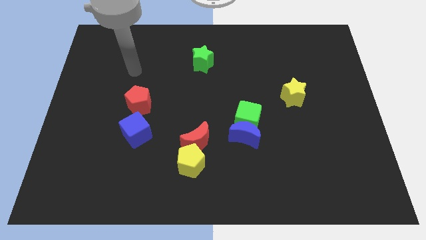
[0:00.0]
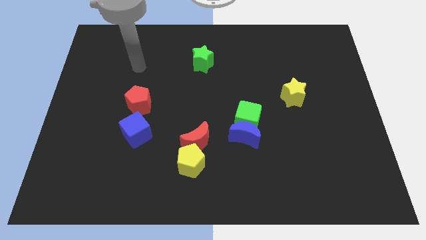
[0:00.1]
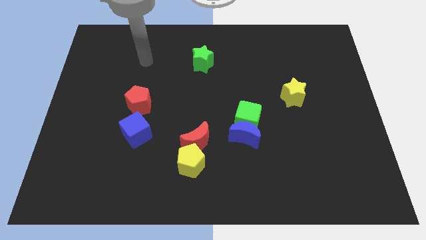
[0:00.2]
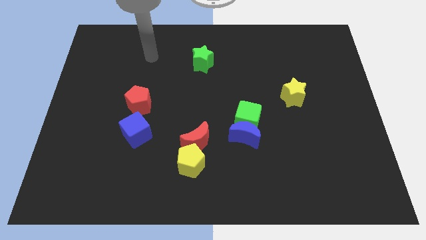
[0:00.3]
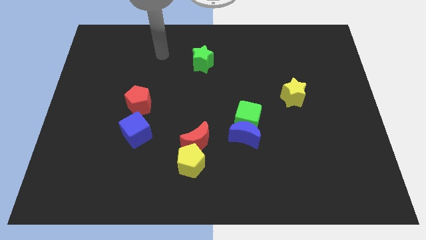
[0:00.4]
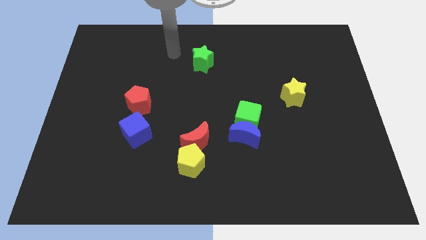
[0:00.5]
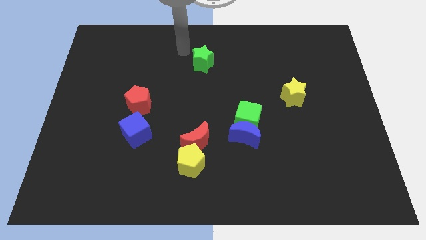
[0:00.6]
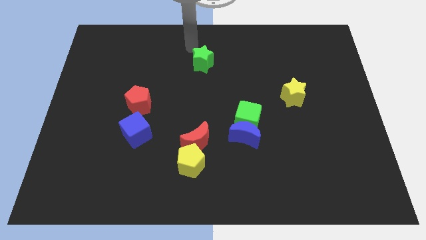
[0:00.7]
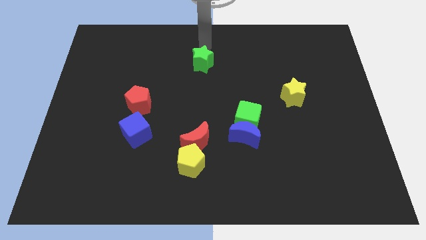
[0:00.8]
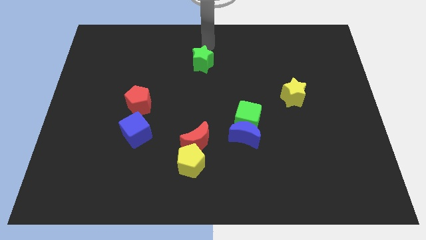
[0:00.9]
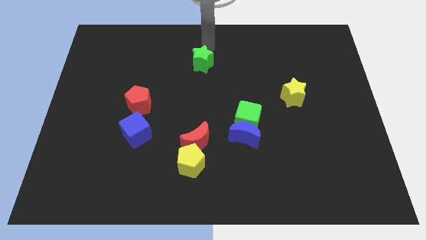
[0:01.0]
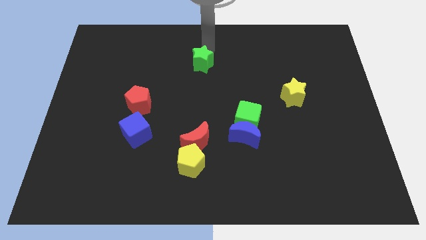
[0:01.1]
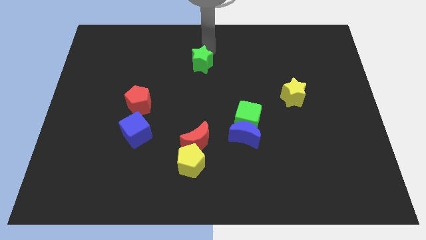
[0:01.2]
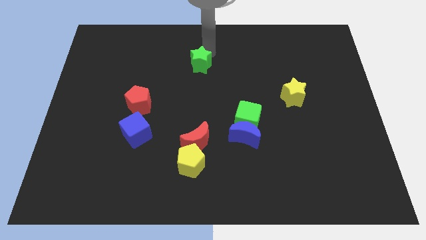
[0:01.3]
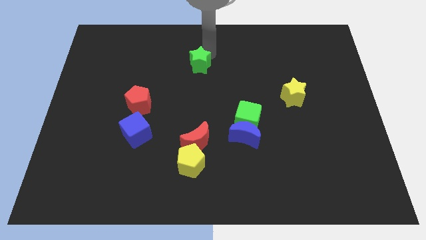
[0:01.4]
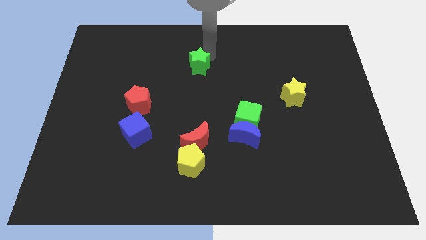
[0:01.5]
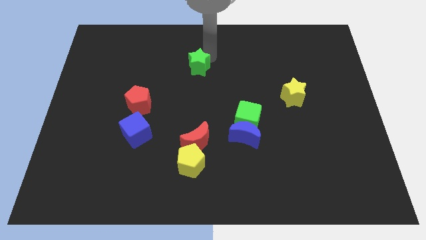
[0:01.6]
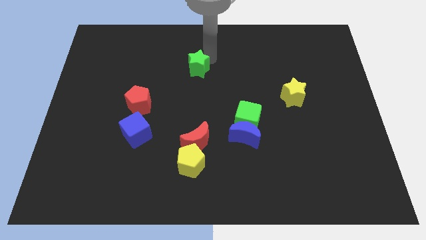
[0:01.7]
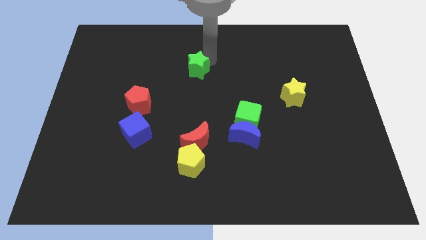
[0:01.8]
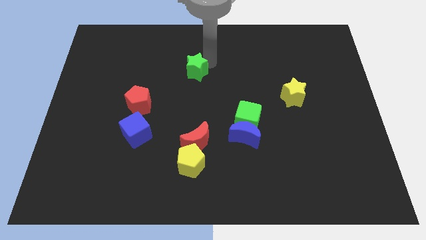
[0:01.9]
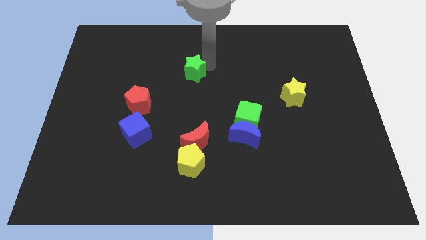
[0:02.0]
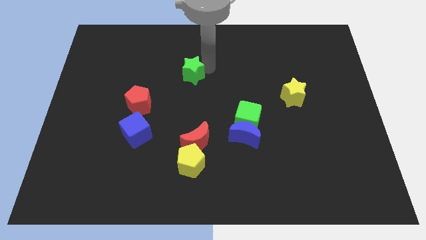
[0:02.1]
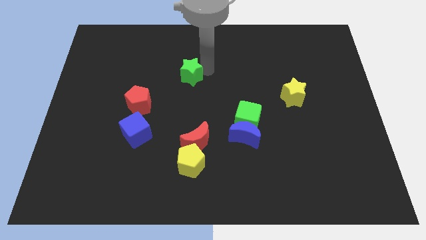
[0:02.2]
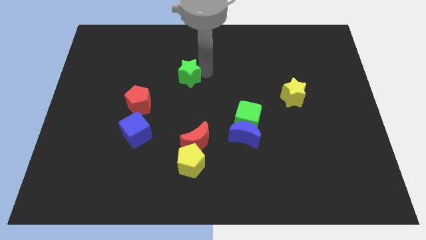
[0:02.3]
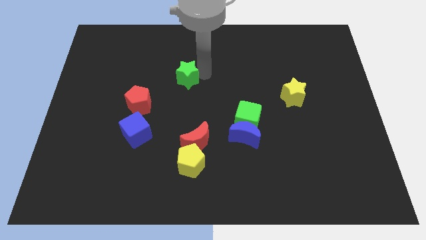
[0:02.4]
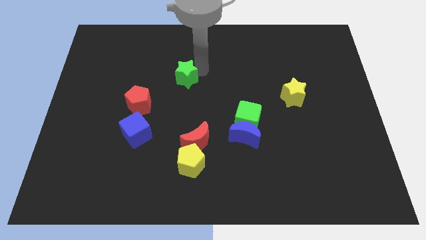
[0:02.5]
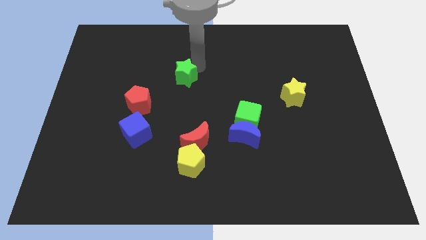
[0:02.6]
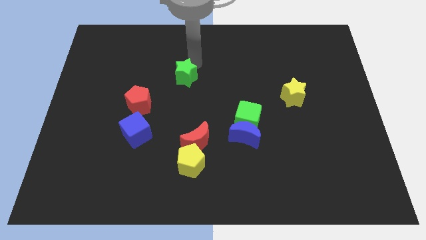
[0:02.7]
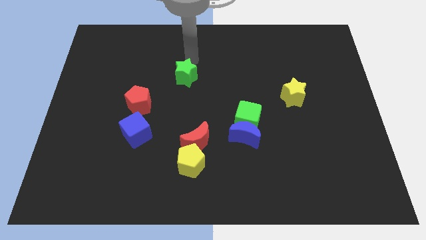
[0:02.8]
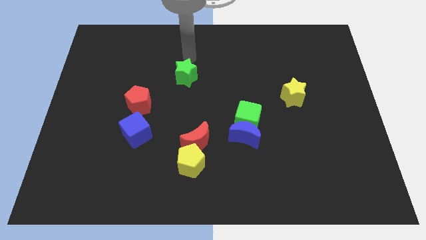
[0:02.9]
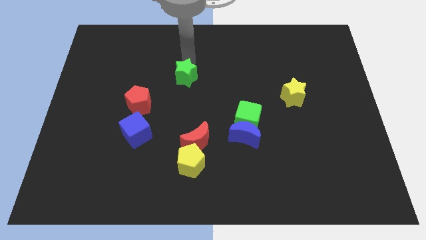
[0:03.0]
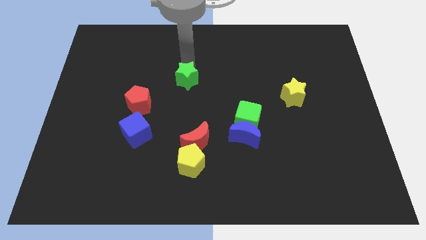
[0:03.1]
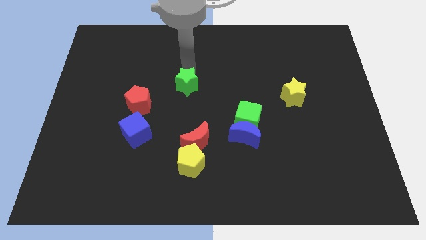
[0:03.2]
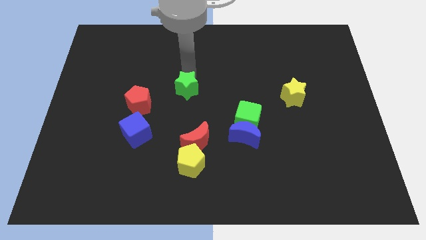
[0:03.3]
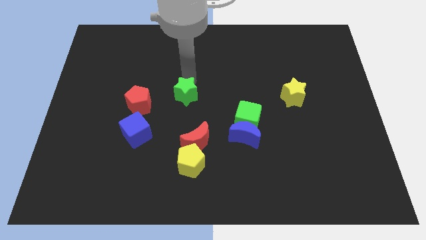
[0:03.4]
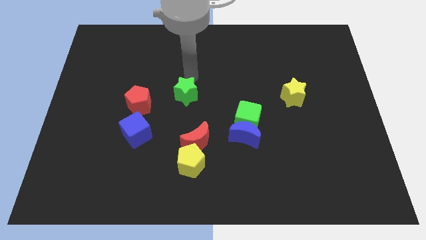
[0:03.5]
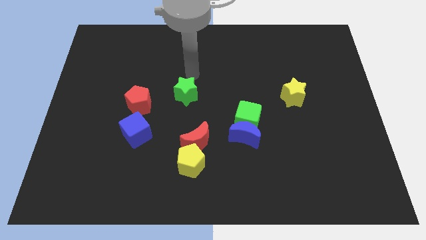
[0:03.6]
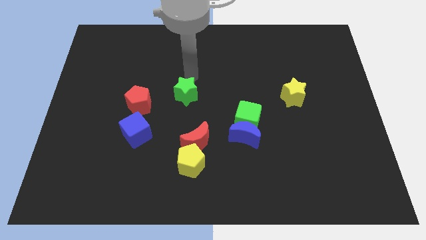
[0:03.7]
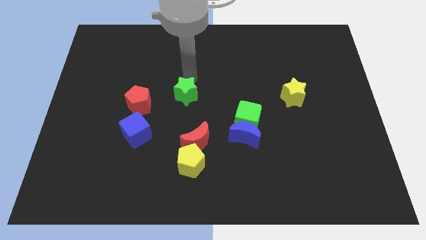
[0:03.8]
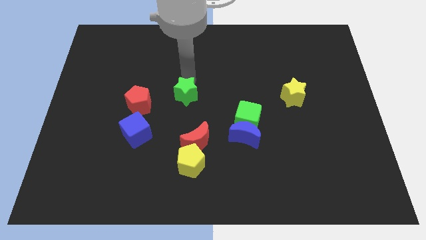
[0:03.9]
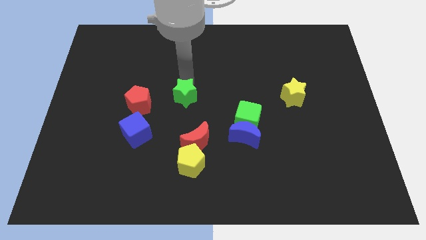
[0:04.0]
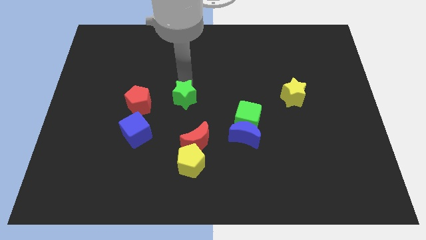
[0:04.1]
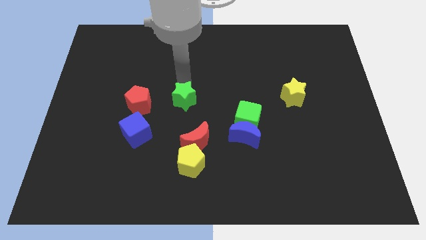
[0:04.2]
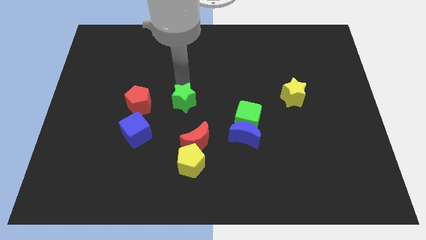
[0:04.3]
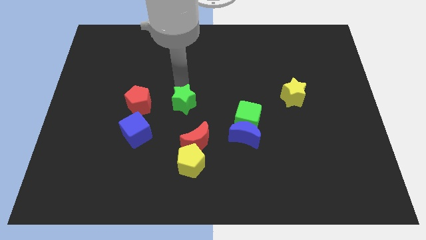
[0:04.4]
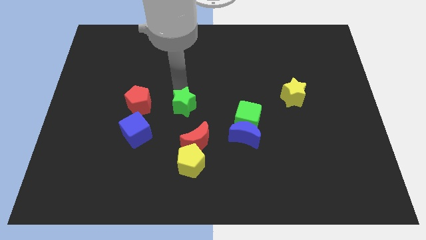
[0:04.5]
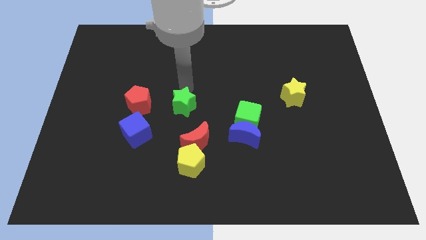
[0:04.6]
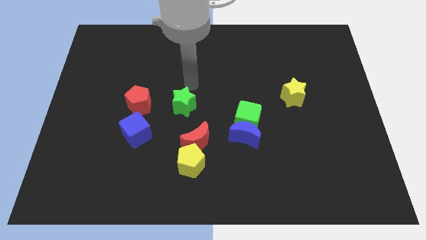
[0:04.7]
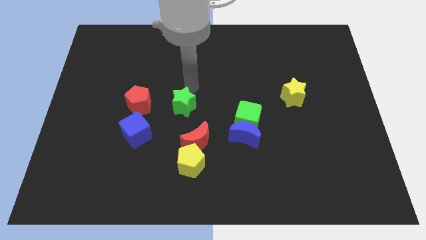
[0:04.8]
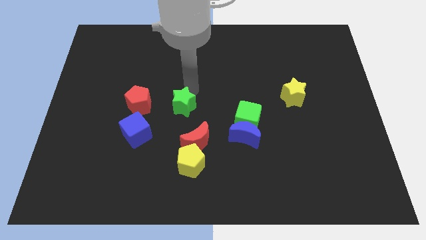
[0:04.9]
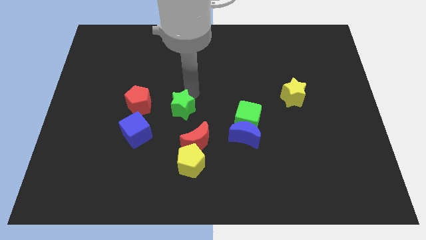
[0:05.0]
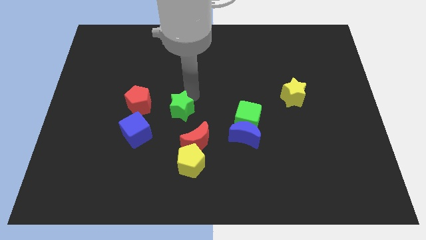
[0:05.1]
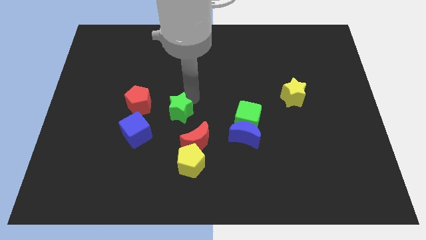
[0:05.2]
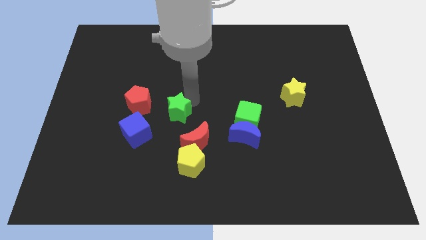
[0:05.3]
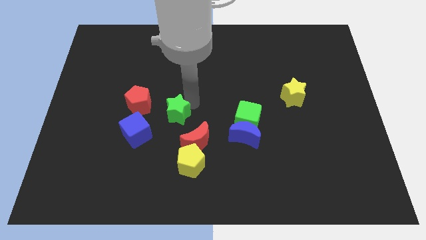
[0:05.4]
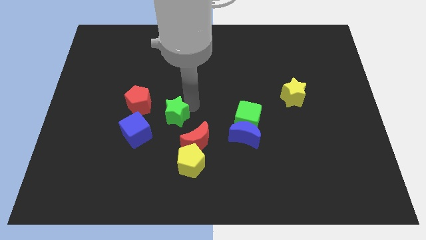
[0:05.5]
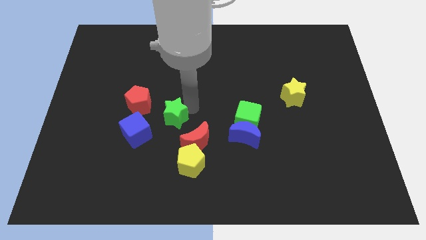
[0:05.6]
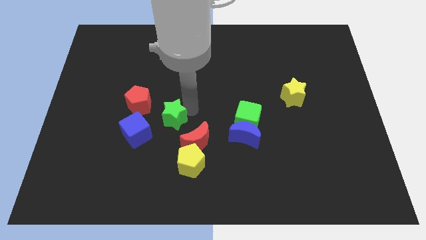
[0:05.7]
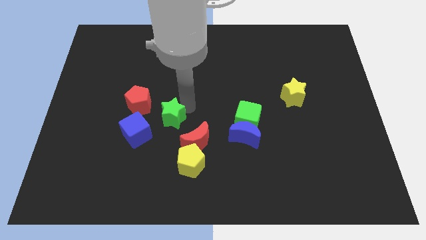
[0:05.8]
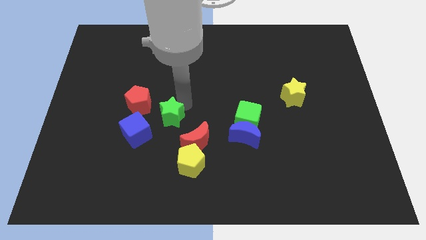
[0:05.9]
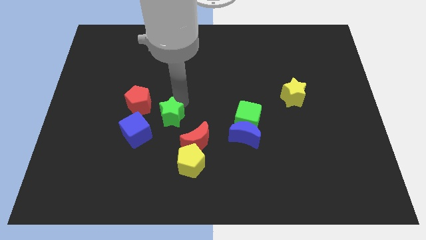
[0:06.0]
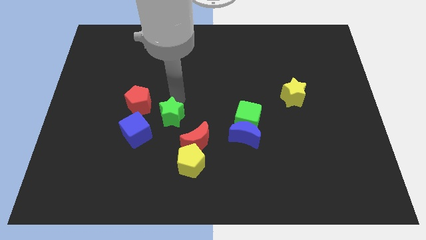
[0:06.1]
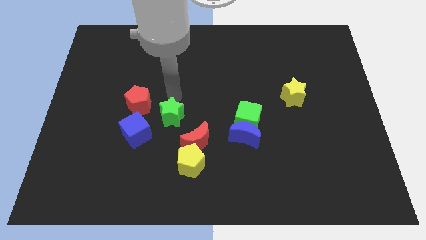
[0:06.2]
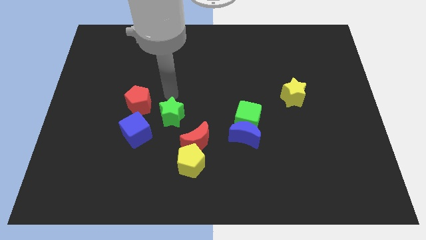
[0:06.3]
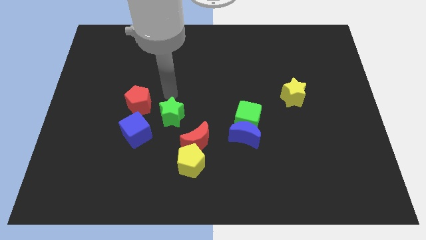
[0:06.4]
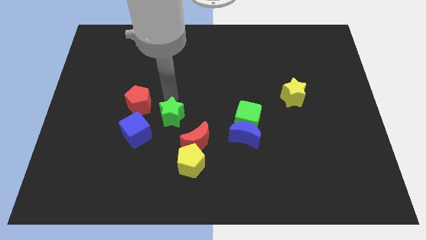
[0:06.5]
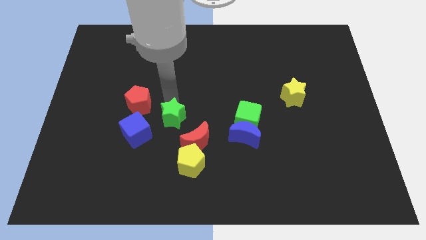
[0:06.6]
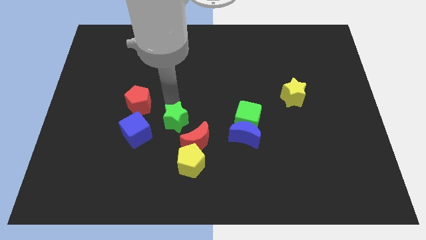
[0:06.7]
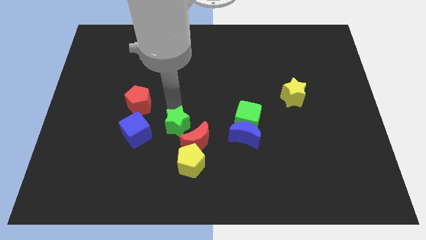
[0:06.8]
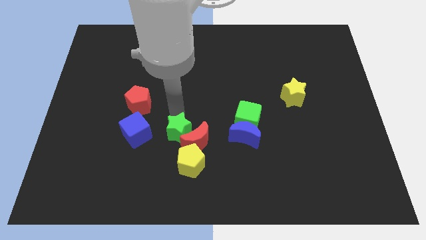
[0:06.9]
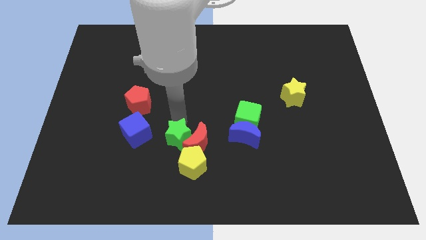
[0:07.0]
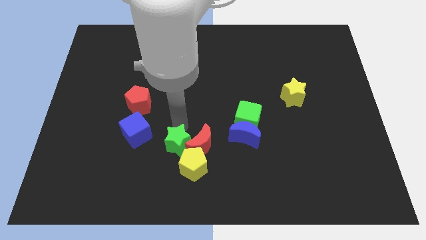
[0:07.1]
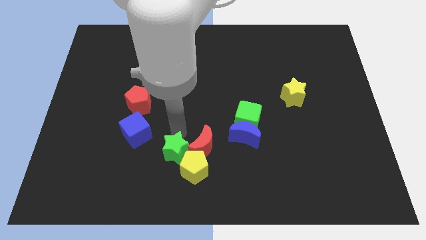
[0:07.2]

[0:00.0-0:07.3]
slide the green star to the yellow pentagon
